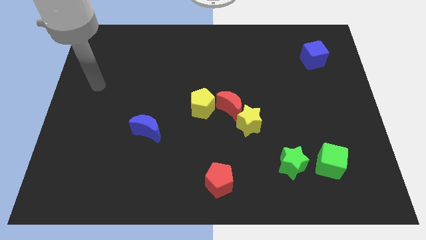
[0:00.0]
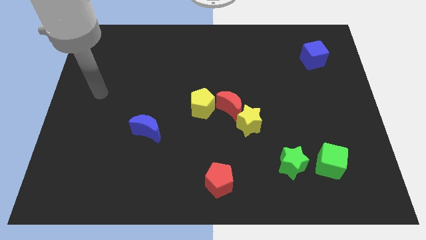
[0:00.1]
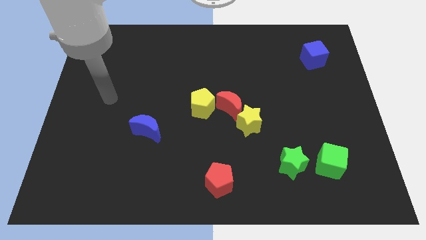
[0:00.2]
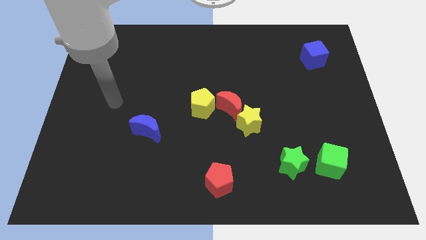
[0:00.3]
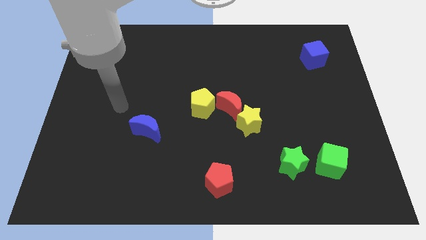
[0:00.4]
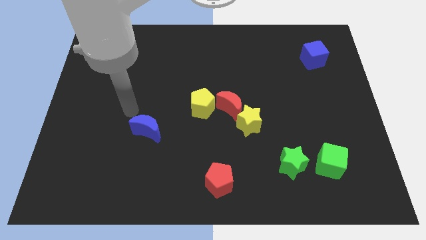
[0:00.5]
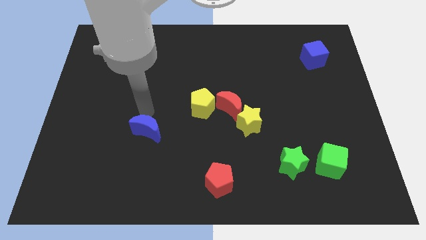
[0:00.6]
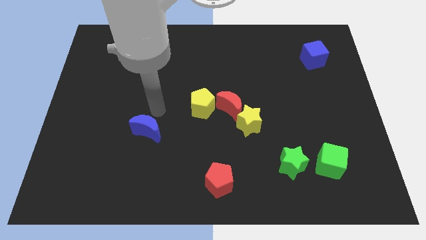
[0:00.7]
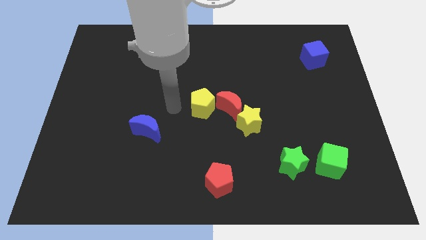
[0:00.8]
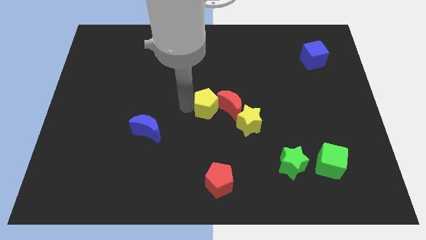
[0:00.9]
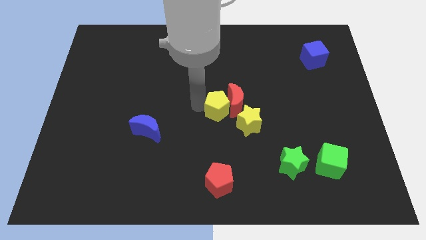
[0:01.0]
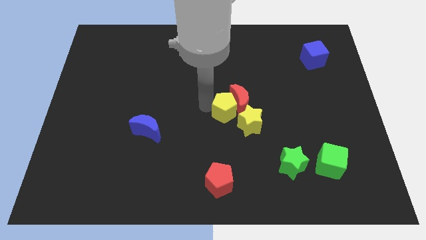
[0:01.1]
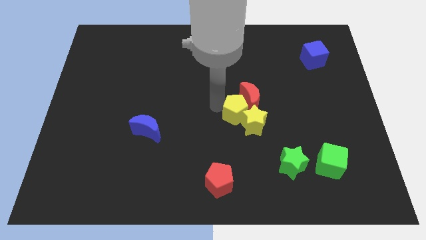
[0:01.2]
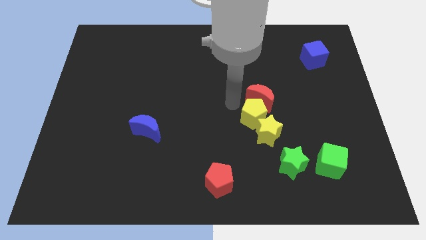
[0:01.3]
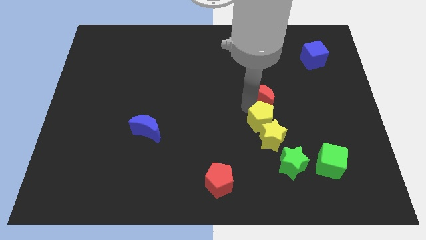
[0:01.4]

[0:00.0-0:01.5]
pull the yellow star apart from the red moon

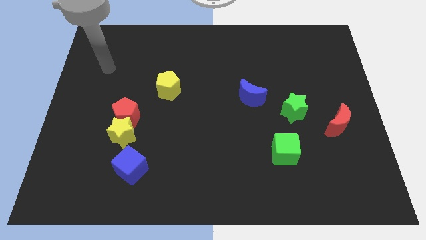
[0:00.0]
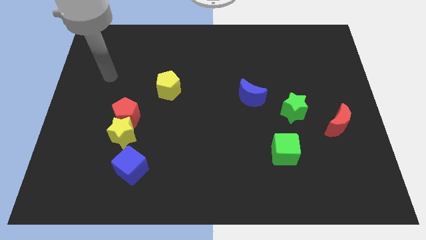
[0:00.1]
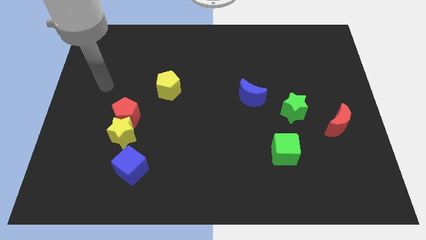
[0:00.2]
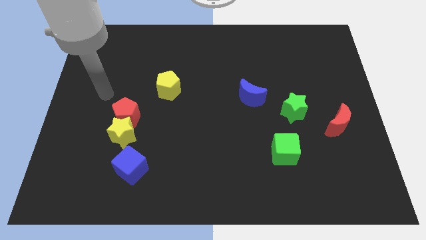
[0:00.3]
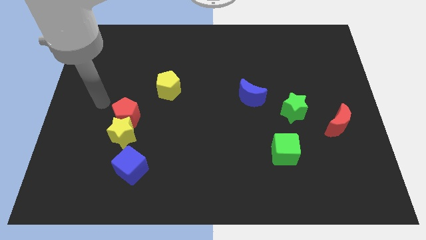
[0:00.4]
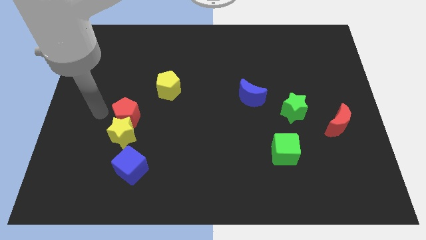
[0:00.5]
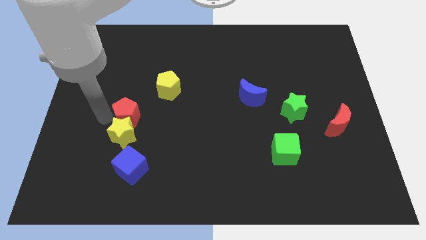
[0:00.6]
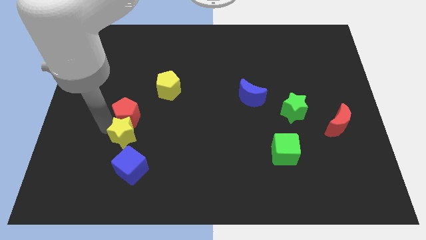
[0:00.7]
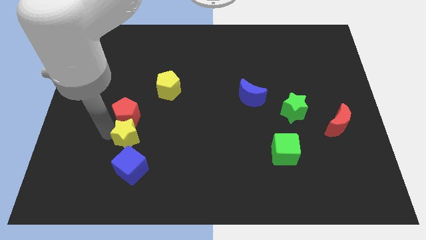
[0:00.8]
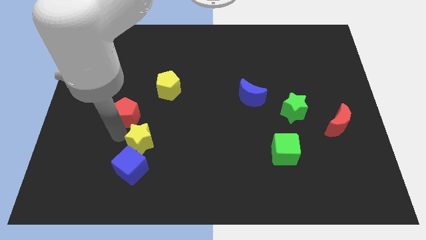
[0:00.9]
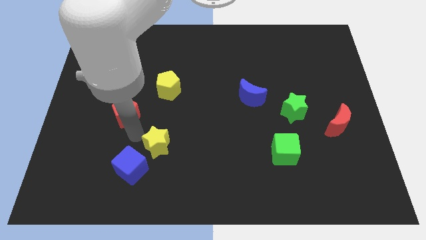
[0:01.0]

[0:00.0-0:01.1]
pull the red pentagon apart from the yellow star

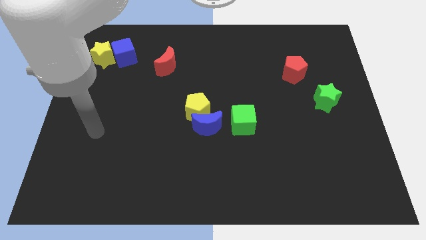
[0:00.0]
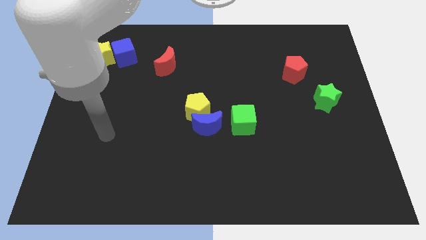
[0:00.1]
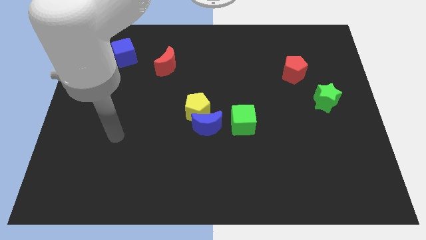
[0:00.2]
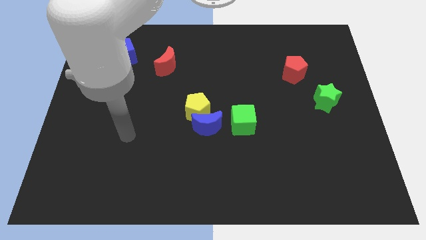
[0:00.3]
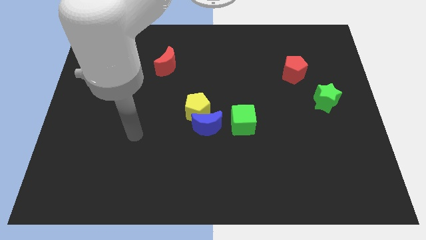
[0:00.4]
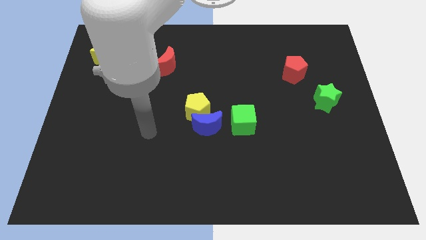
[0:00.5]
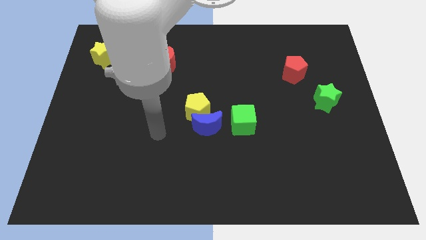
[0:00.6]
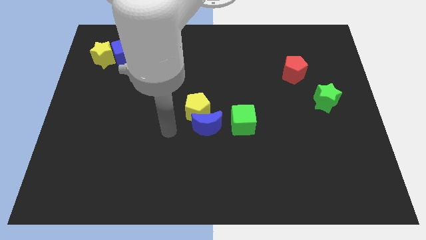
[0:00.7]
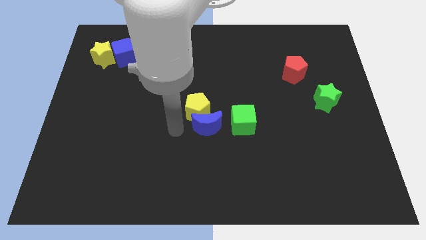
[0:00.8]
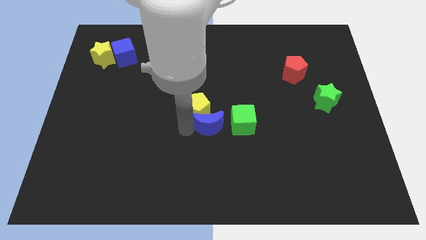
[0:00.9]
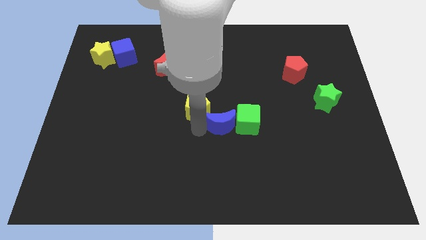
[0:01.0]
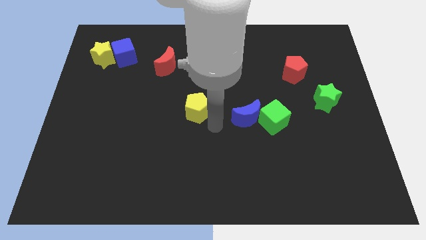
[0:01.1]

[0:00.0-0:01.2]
separate the yellow pentagon from the blue moon

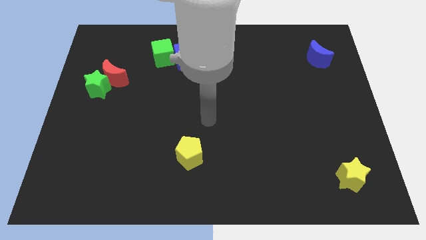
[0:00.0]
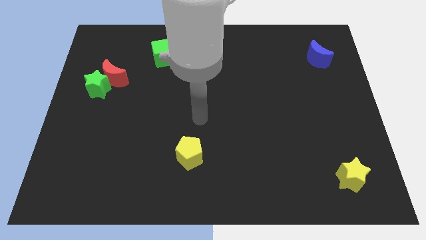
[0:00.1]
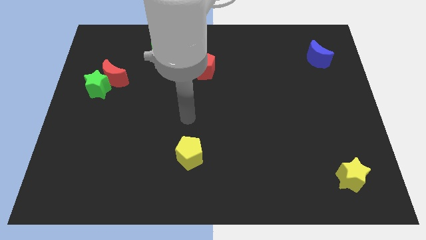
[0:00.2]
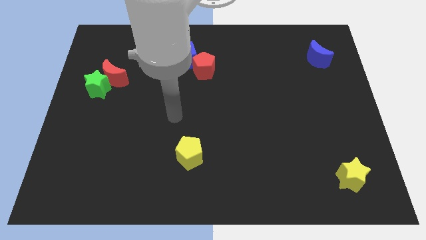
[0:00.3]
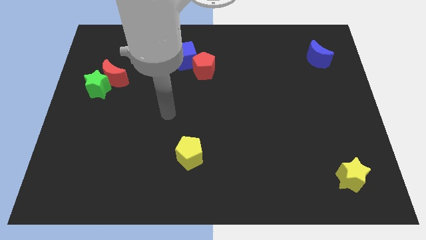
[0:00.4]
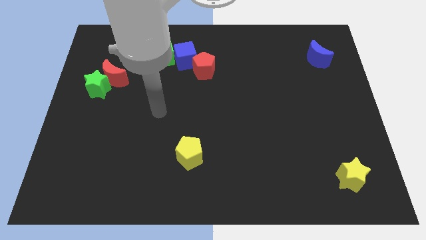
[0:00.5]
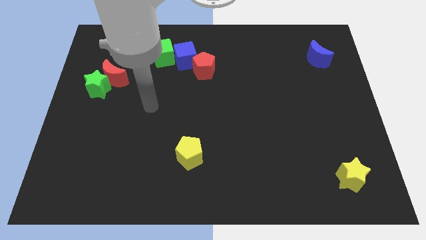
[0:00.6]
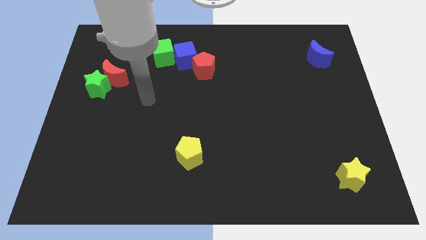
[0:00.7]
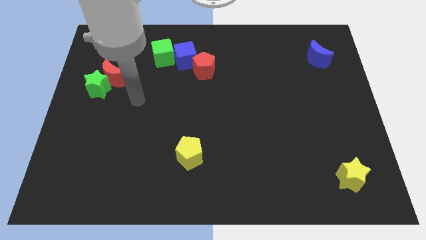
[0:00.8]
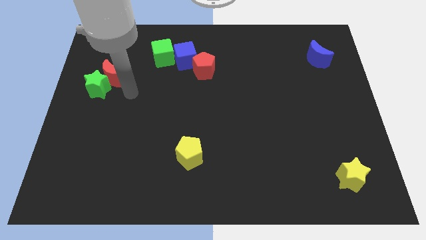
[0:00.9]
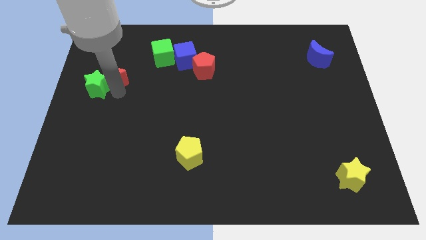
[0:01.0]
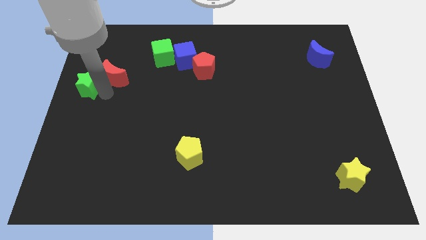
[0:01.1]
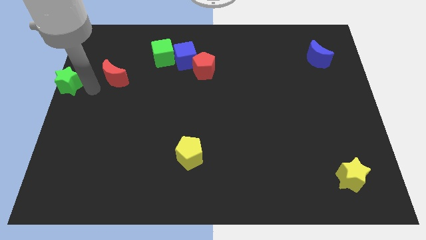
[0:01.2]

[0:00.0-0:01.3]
separate the red moon from the green star

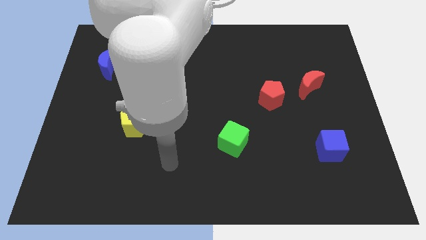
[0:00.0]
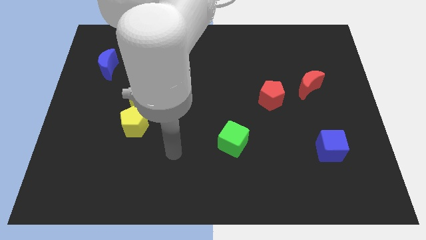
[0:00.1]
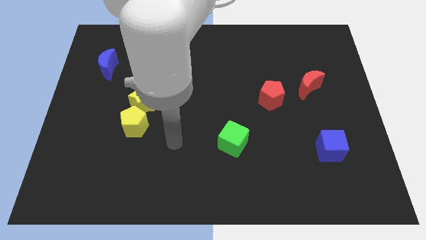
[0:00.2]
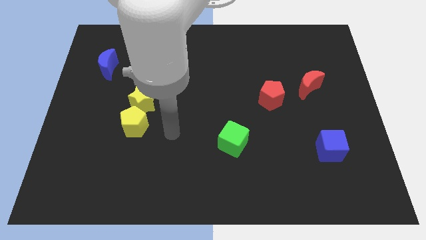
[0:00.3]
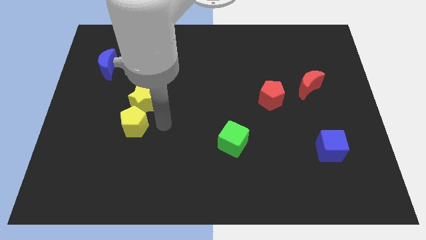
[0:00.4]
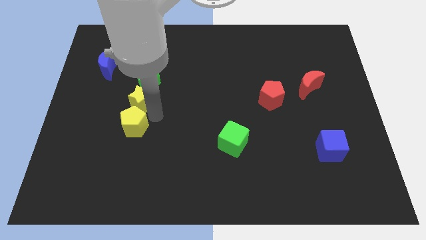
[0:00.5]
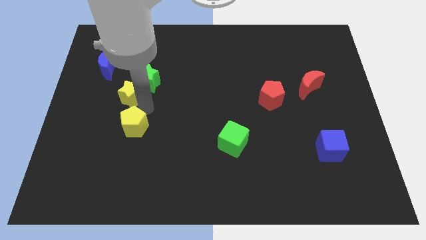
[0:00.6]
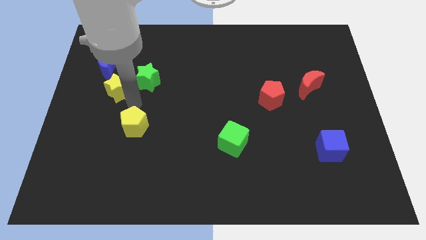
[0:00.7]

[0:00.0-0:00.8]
separate the yellow pentagon from the yellow star

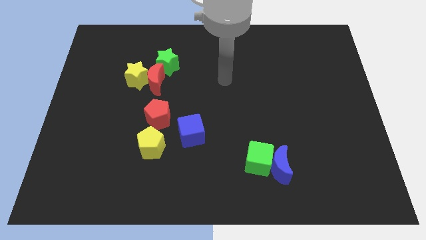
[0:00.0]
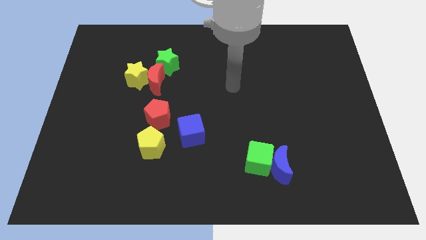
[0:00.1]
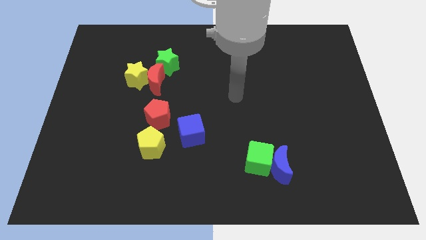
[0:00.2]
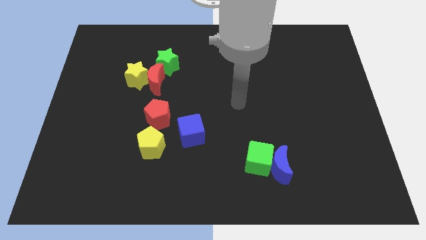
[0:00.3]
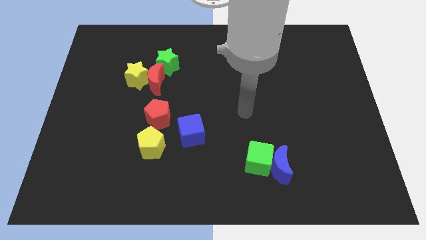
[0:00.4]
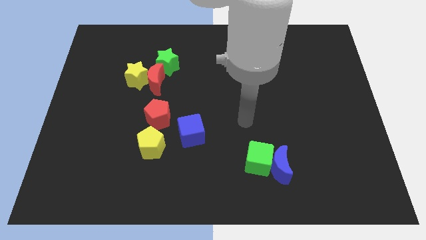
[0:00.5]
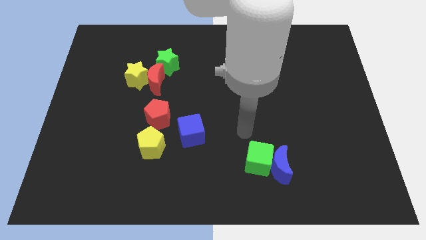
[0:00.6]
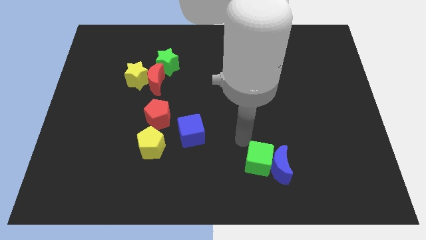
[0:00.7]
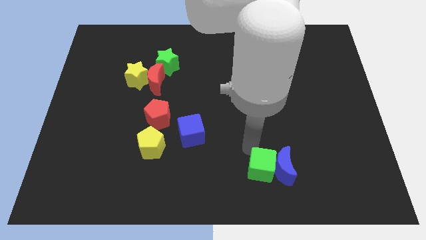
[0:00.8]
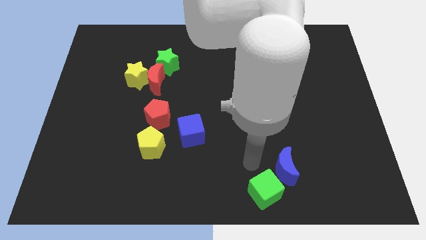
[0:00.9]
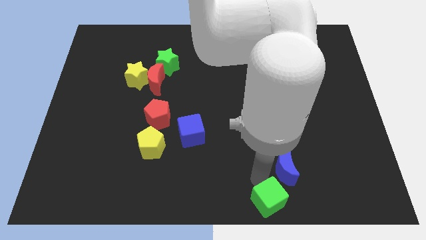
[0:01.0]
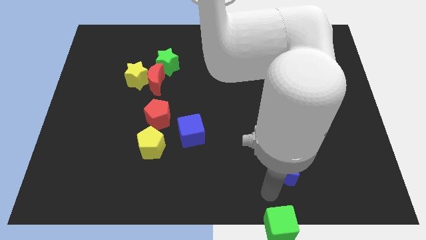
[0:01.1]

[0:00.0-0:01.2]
move the blue moon away from the green cube

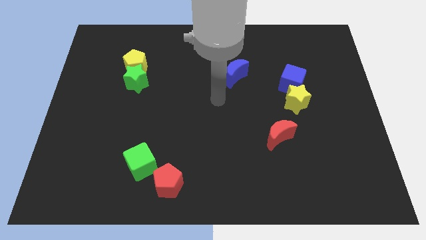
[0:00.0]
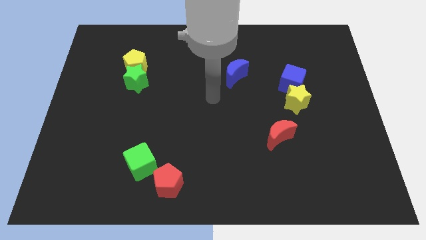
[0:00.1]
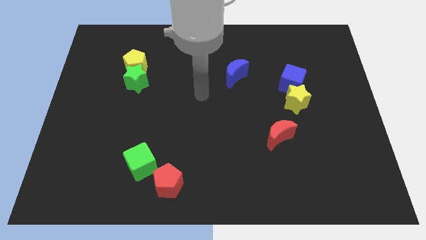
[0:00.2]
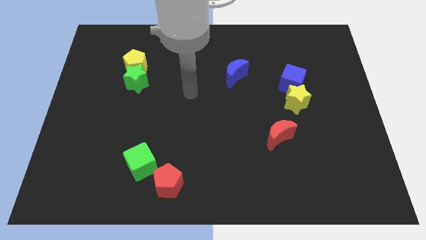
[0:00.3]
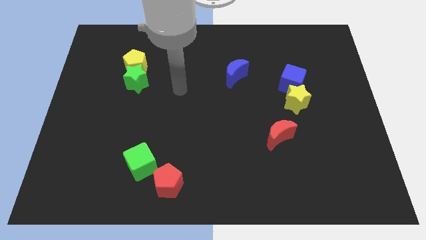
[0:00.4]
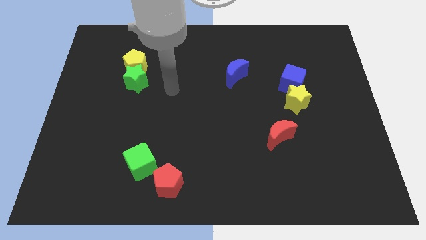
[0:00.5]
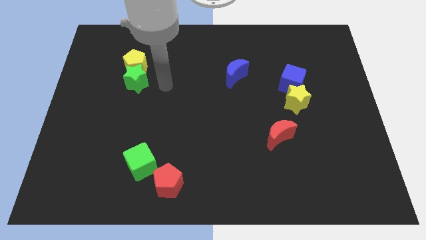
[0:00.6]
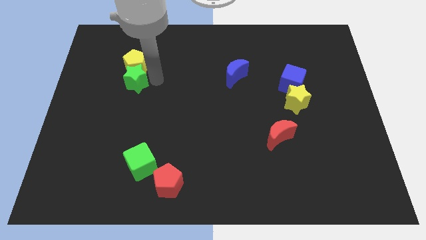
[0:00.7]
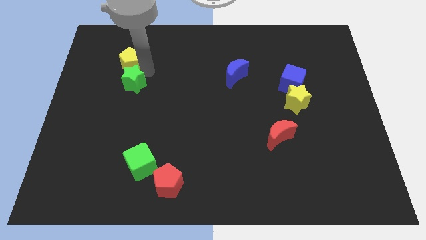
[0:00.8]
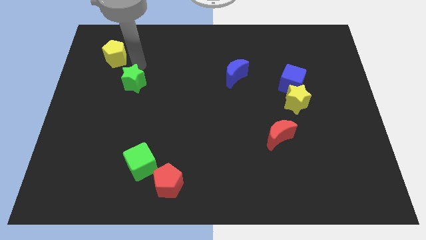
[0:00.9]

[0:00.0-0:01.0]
move the green star away from the yellow pentagon

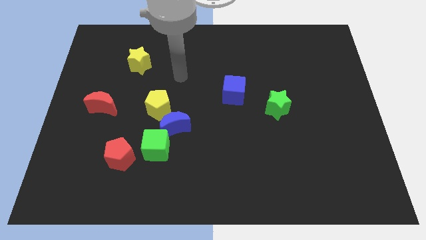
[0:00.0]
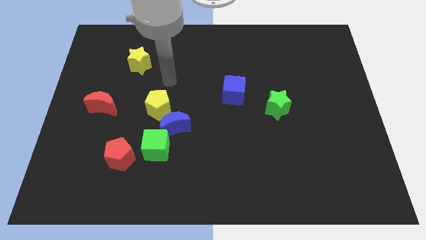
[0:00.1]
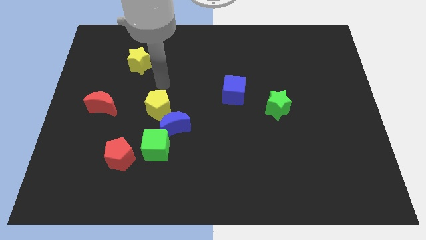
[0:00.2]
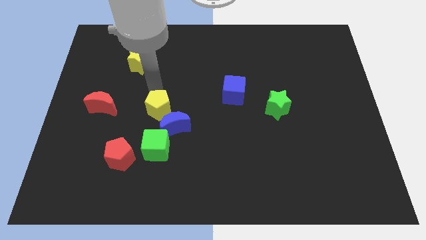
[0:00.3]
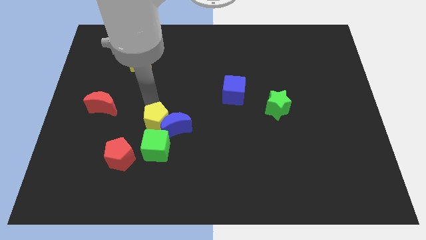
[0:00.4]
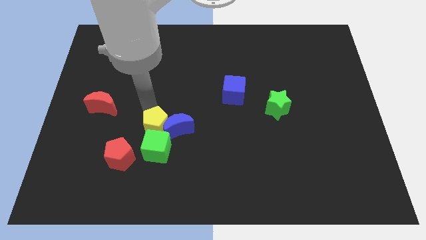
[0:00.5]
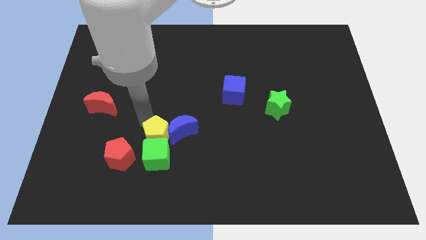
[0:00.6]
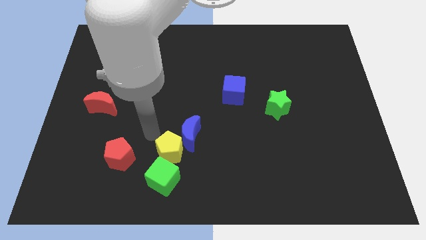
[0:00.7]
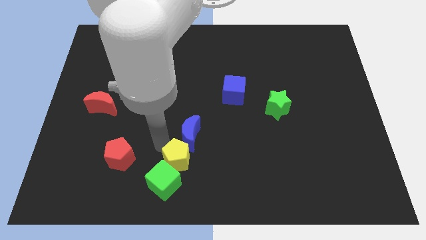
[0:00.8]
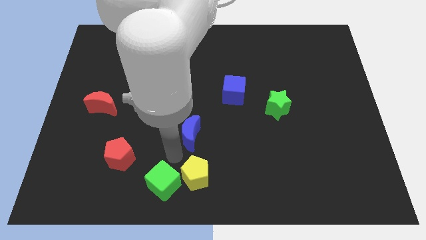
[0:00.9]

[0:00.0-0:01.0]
separate the blue moon from the green cube and yellow pentagon
